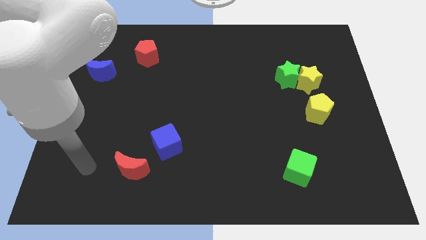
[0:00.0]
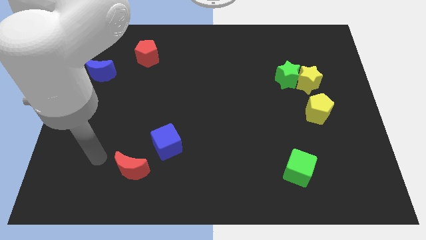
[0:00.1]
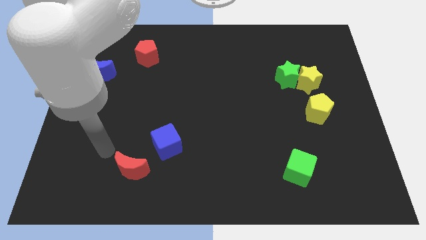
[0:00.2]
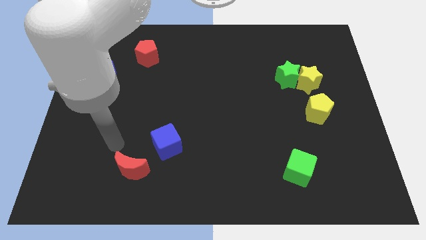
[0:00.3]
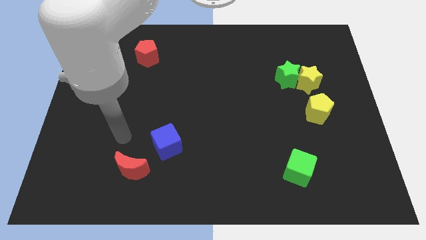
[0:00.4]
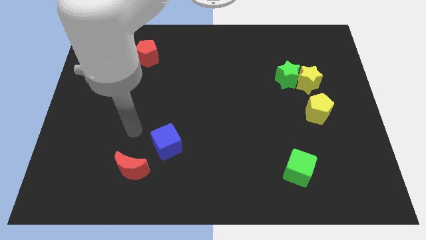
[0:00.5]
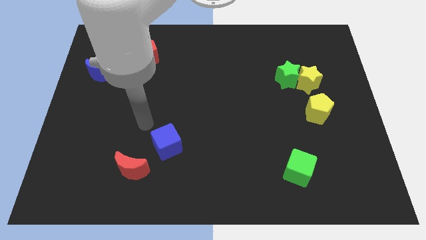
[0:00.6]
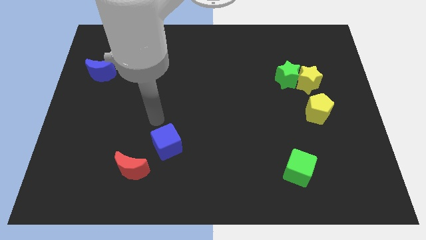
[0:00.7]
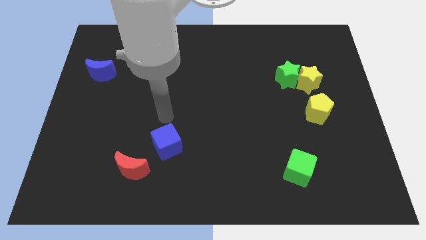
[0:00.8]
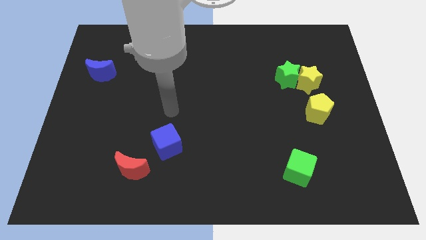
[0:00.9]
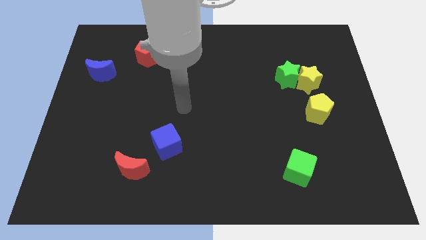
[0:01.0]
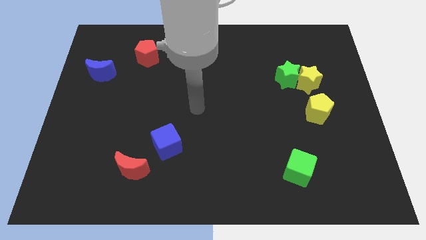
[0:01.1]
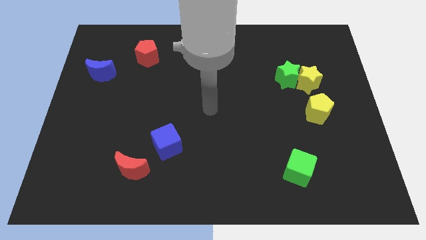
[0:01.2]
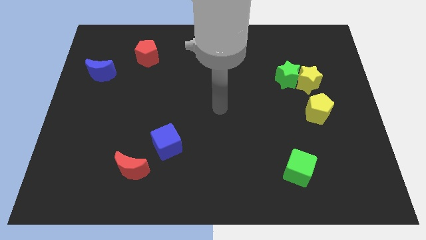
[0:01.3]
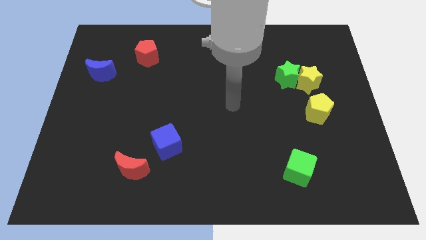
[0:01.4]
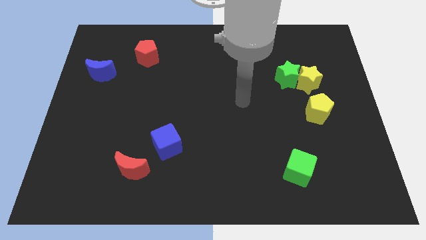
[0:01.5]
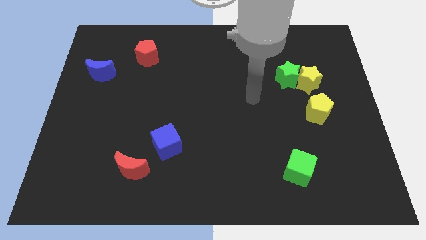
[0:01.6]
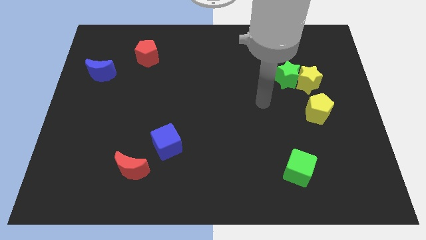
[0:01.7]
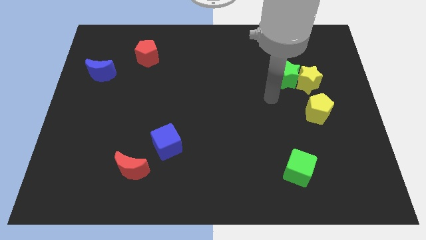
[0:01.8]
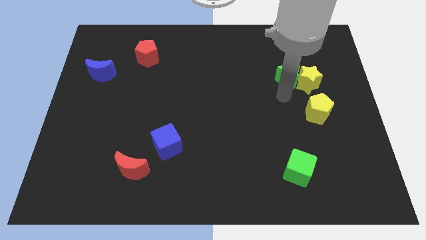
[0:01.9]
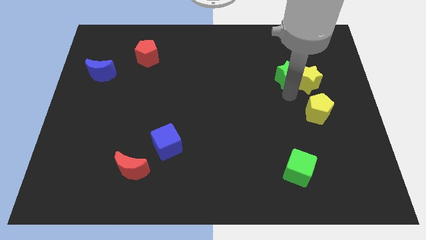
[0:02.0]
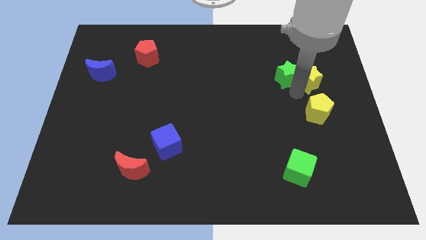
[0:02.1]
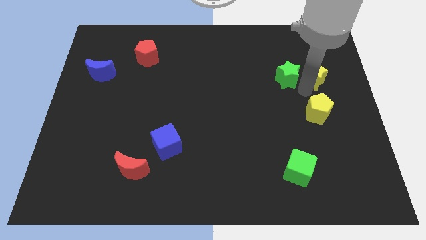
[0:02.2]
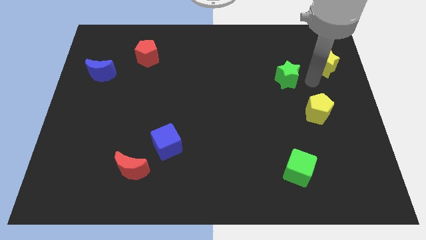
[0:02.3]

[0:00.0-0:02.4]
separate the green star from the yellow star

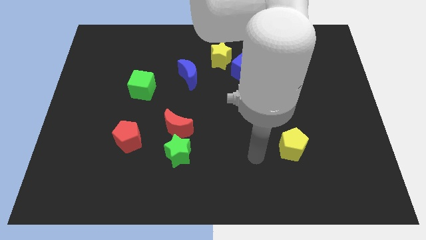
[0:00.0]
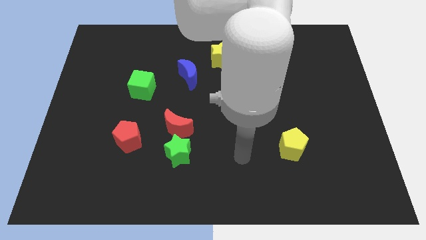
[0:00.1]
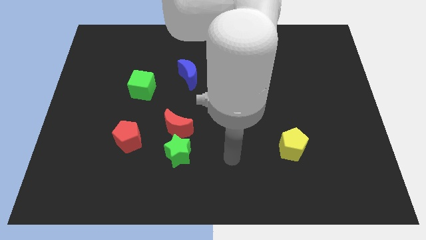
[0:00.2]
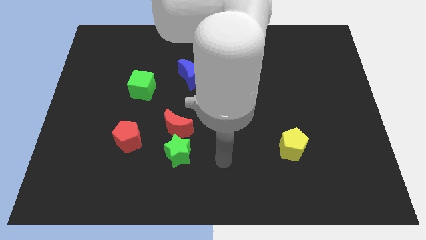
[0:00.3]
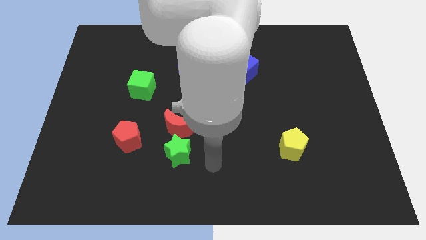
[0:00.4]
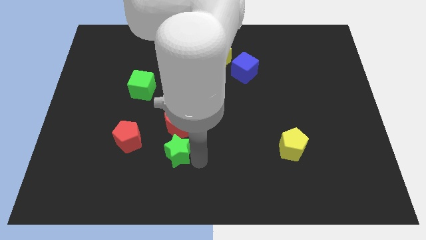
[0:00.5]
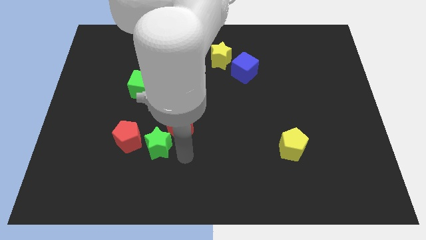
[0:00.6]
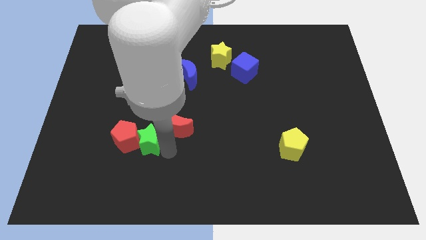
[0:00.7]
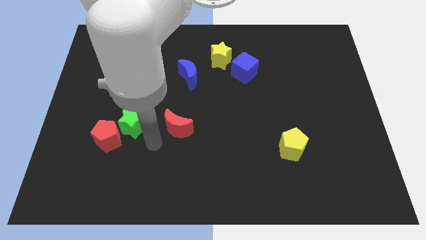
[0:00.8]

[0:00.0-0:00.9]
pull the red moon apart from the green star

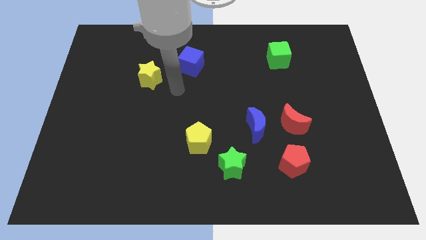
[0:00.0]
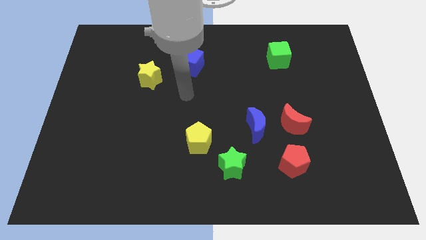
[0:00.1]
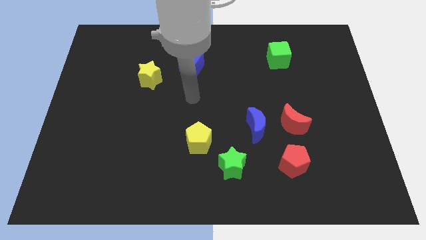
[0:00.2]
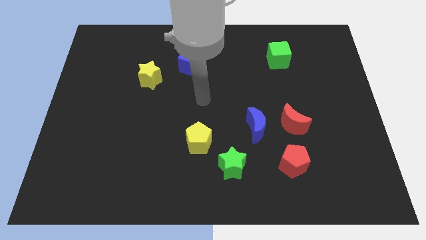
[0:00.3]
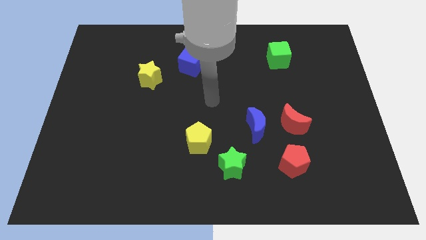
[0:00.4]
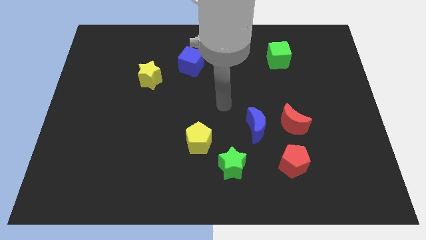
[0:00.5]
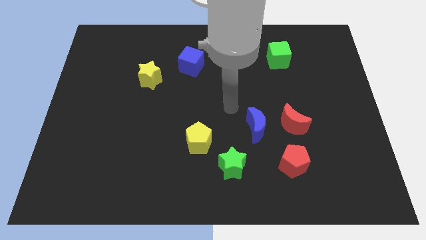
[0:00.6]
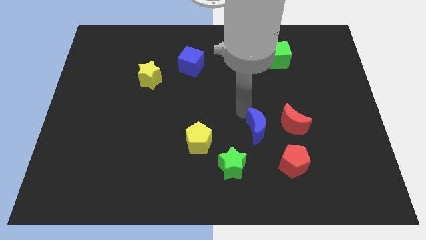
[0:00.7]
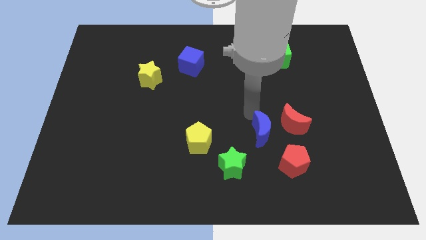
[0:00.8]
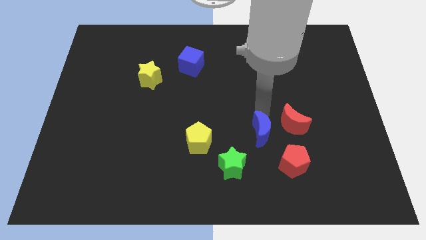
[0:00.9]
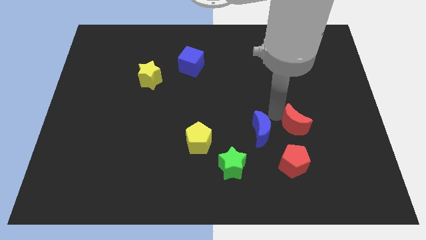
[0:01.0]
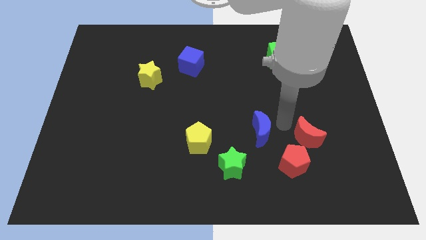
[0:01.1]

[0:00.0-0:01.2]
separate the blue moon from the red moon

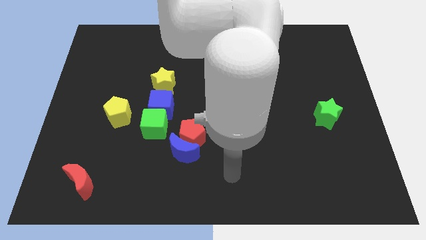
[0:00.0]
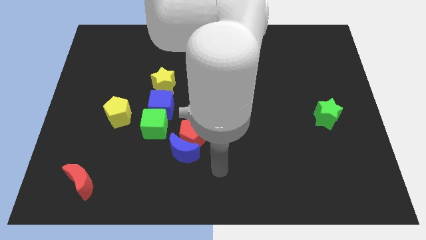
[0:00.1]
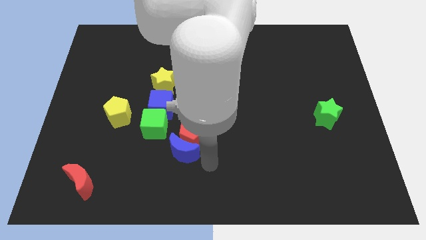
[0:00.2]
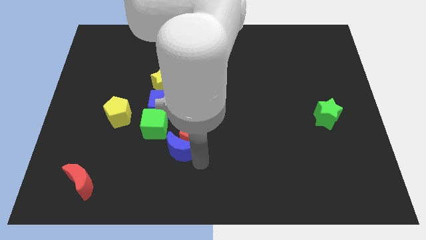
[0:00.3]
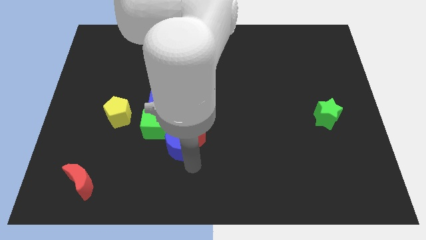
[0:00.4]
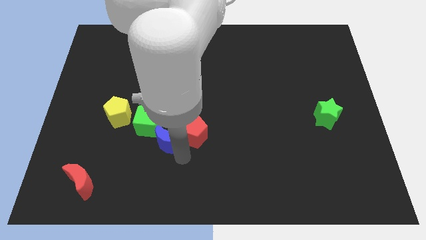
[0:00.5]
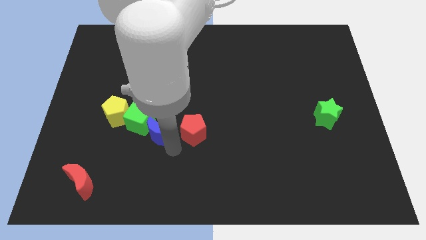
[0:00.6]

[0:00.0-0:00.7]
move the red pentagon away from the blue moon and green cube

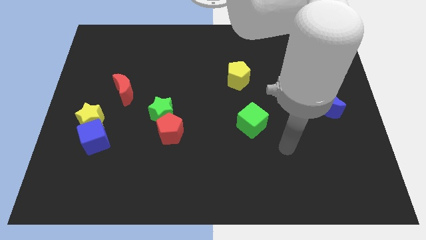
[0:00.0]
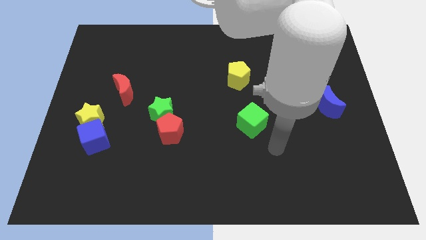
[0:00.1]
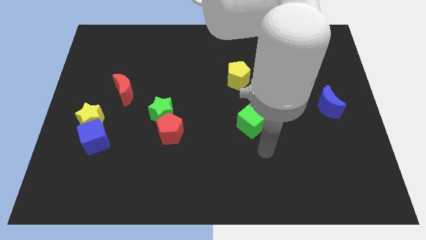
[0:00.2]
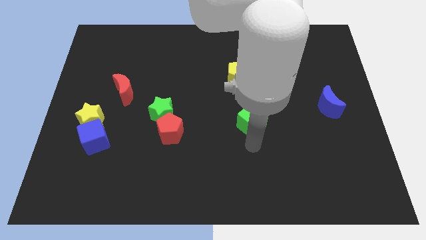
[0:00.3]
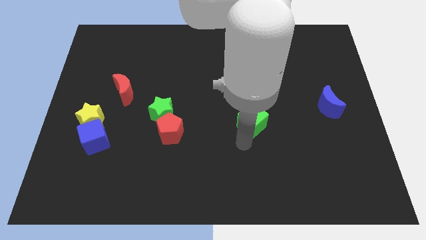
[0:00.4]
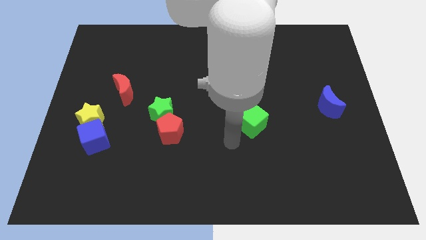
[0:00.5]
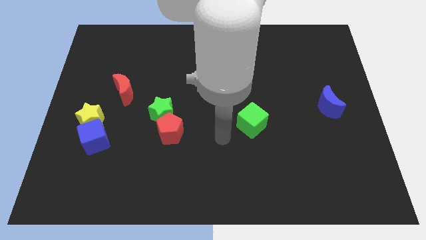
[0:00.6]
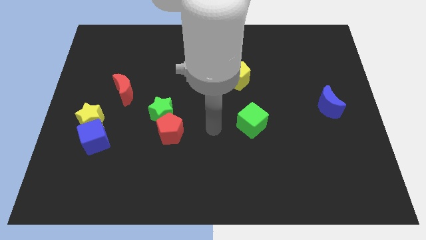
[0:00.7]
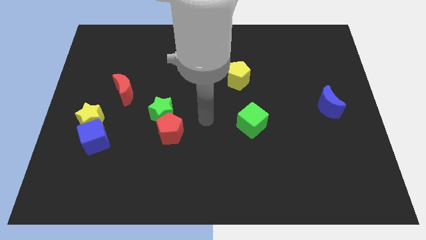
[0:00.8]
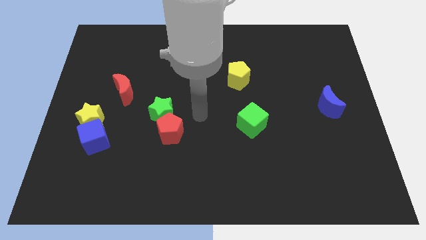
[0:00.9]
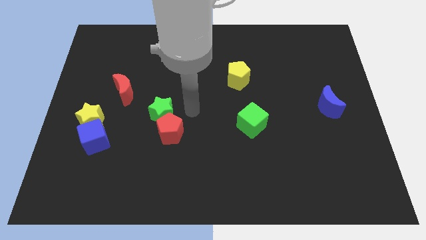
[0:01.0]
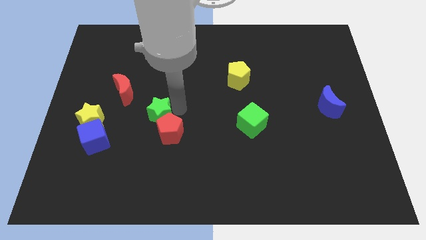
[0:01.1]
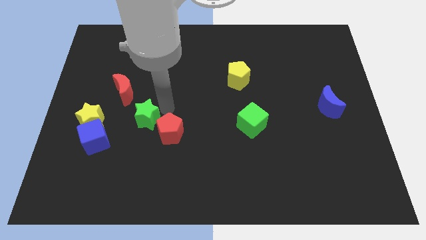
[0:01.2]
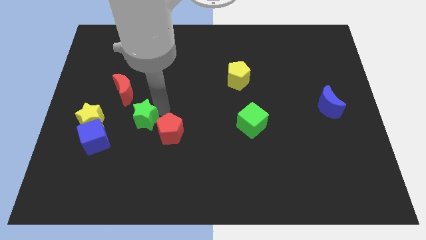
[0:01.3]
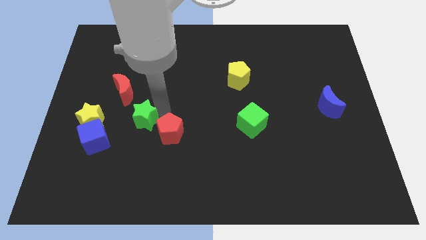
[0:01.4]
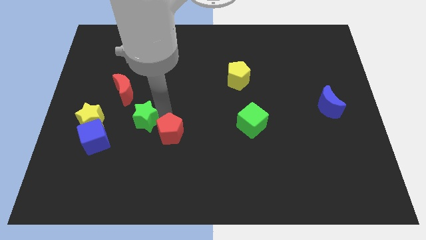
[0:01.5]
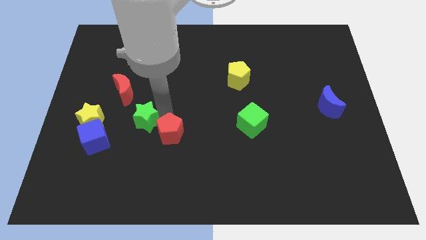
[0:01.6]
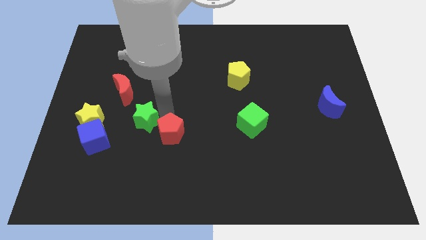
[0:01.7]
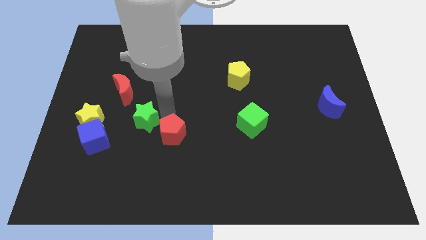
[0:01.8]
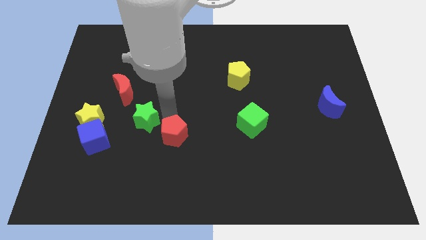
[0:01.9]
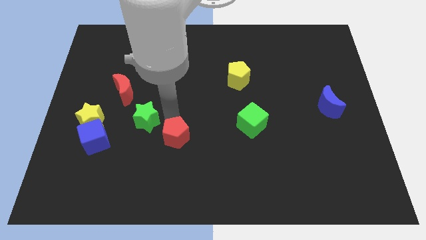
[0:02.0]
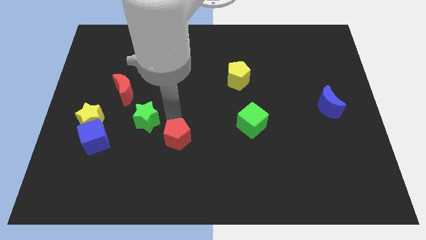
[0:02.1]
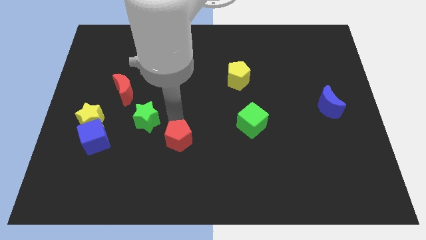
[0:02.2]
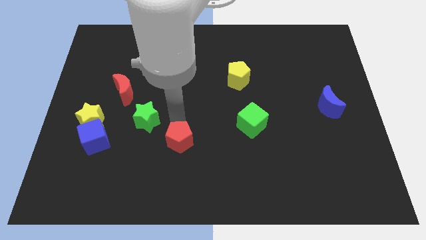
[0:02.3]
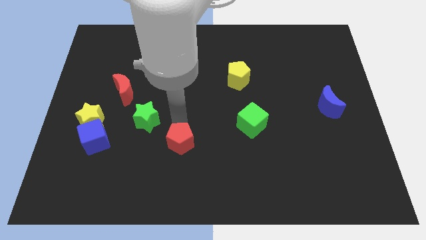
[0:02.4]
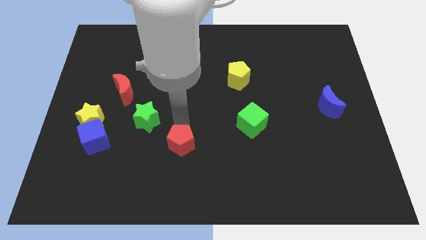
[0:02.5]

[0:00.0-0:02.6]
move the red pentagon away from the green star

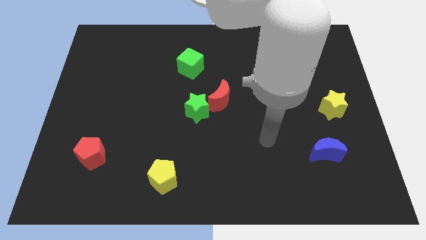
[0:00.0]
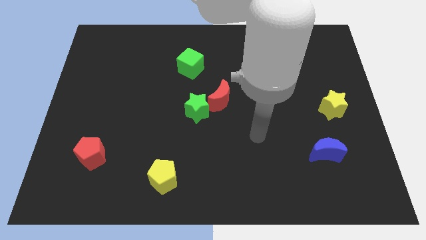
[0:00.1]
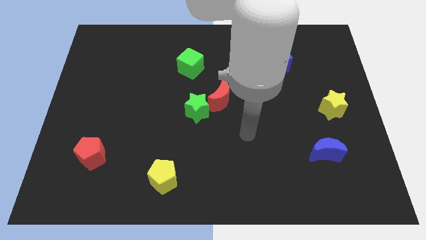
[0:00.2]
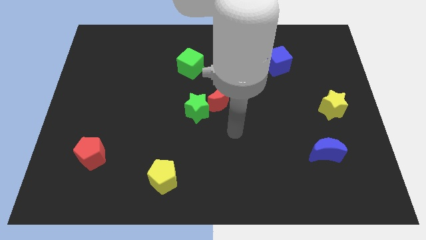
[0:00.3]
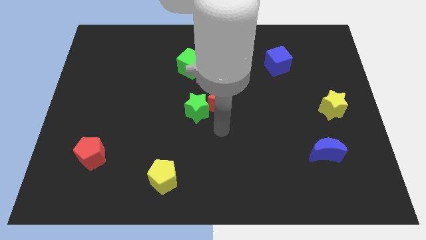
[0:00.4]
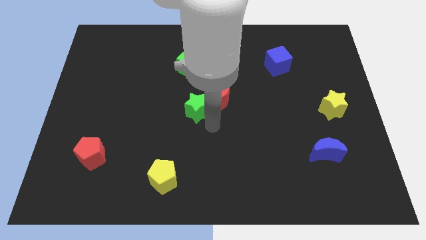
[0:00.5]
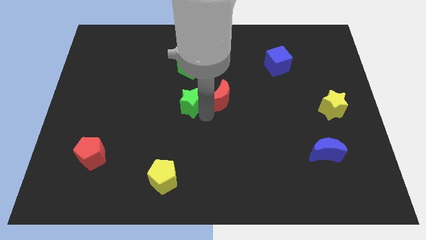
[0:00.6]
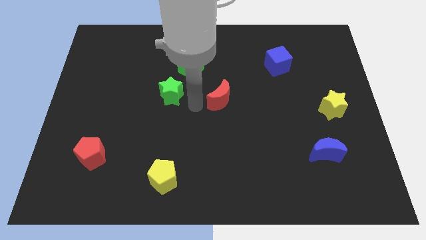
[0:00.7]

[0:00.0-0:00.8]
separate the red moon from the green star

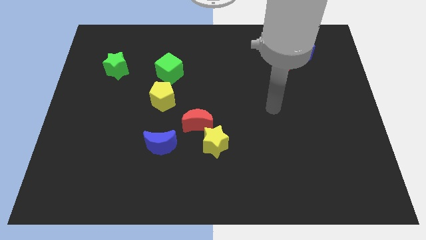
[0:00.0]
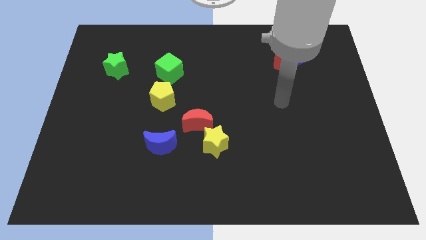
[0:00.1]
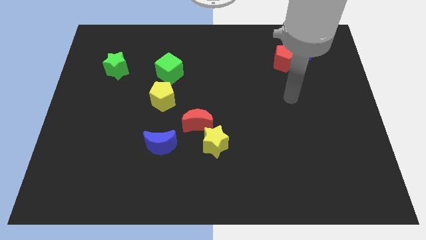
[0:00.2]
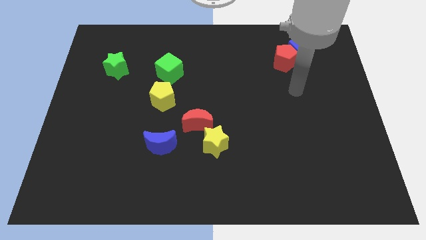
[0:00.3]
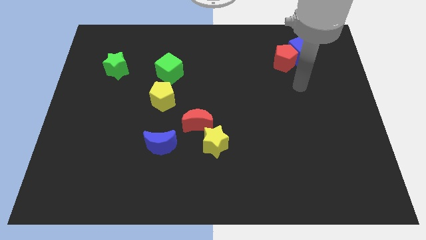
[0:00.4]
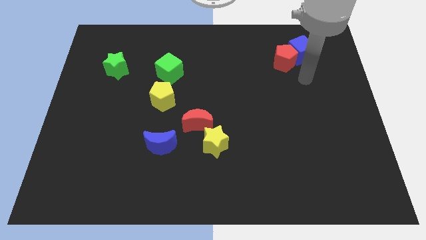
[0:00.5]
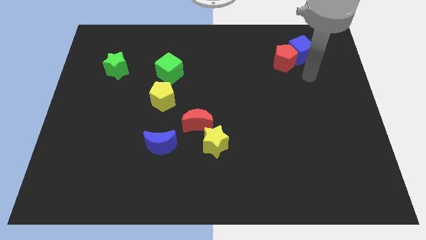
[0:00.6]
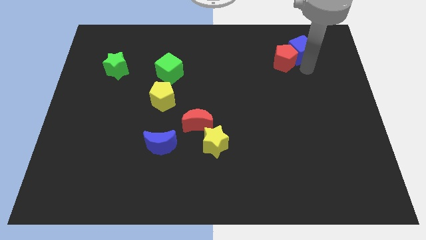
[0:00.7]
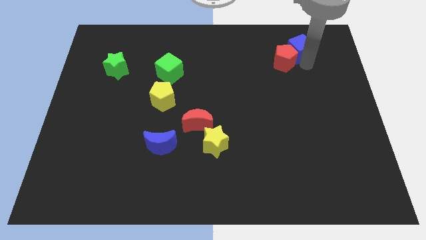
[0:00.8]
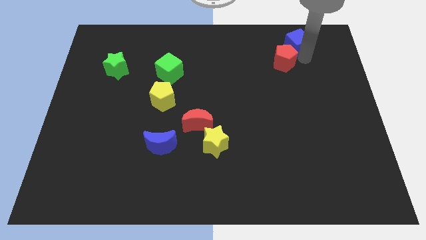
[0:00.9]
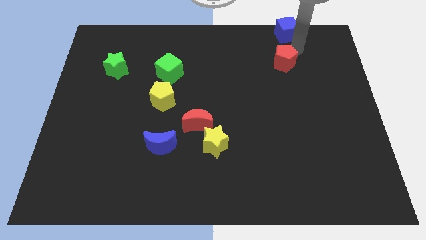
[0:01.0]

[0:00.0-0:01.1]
separate the red pentagon from the blue cube
